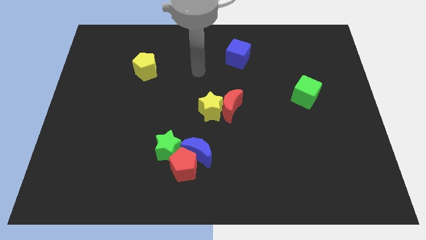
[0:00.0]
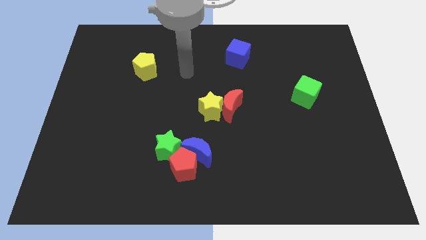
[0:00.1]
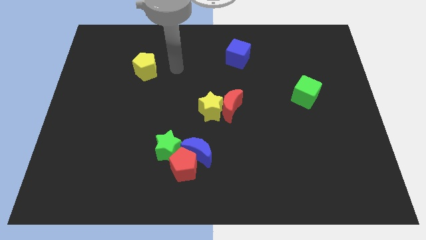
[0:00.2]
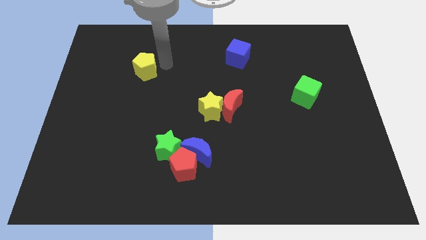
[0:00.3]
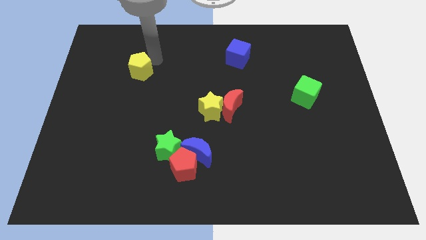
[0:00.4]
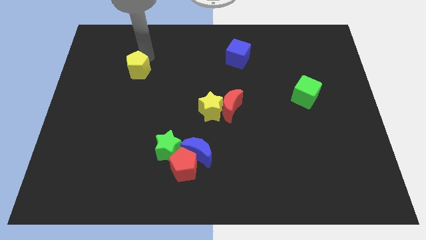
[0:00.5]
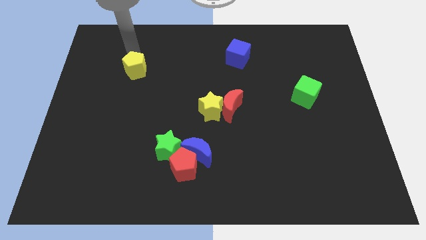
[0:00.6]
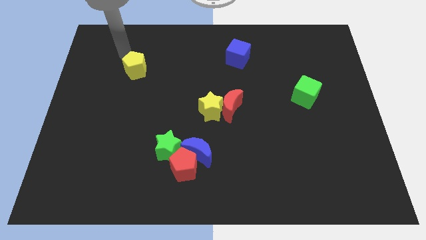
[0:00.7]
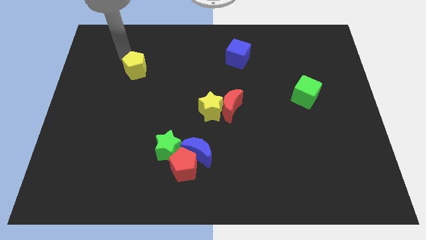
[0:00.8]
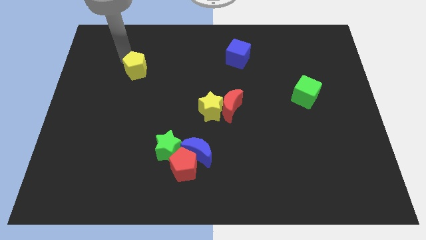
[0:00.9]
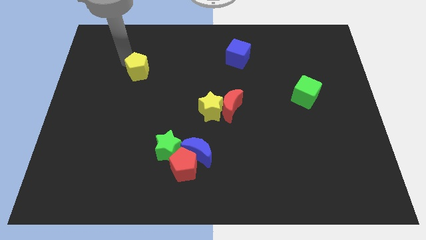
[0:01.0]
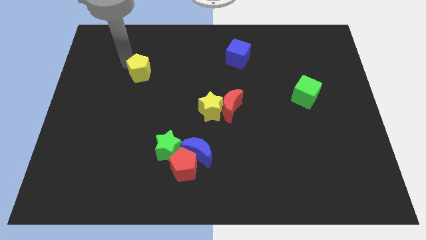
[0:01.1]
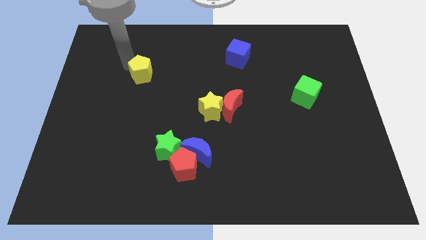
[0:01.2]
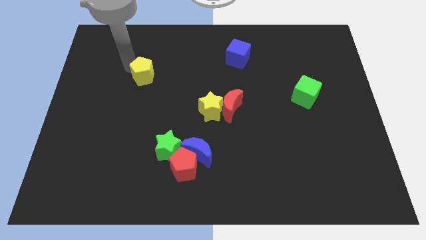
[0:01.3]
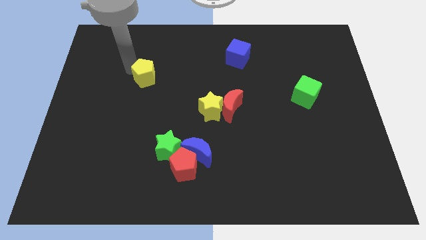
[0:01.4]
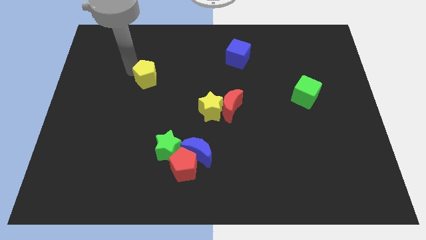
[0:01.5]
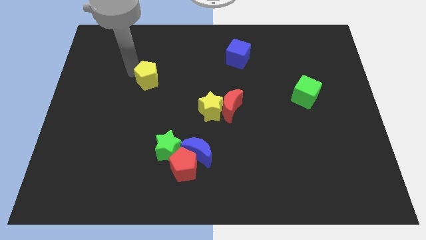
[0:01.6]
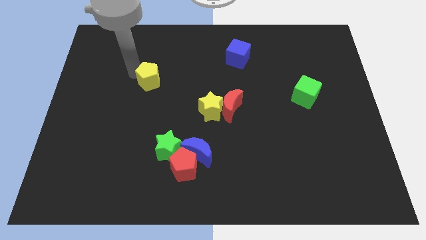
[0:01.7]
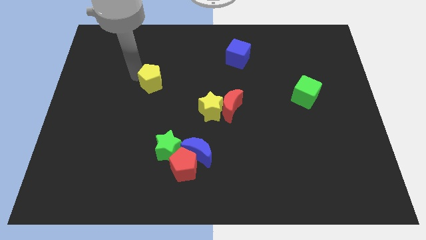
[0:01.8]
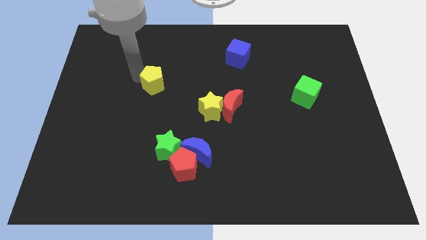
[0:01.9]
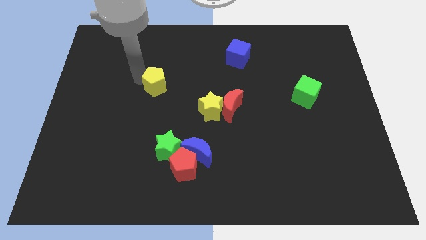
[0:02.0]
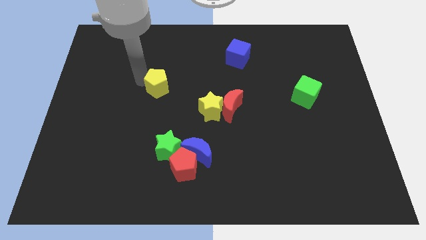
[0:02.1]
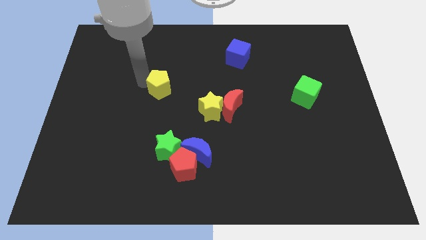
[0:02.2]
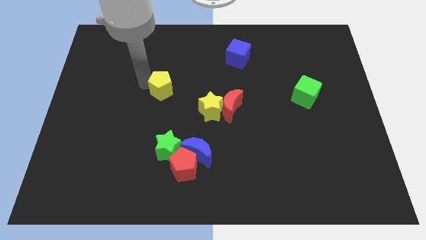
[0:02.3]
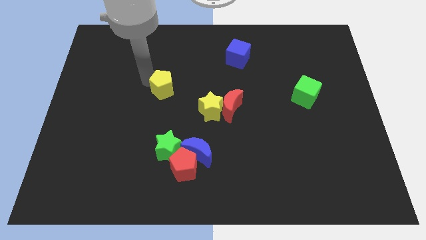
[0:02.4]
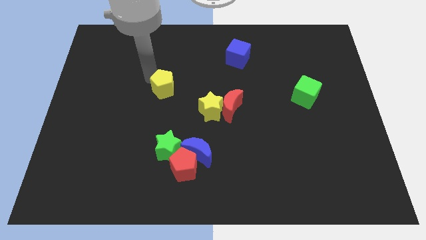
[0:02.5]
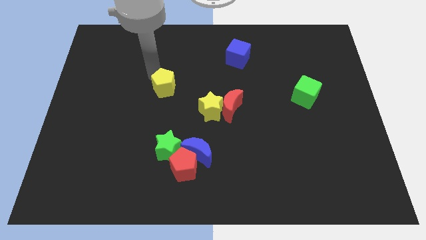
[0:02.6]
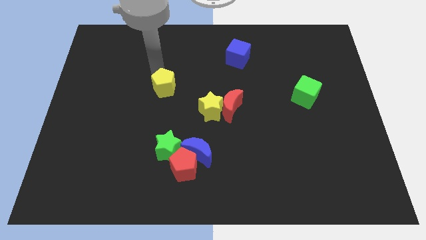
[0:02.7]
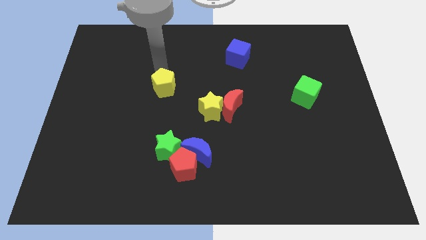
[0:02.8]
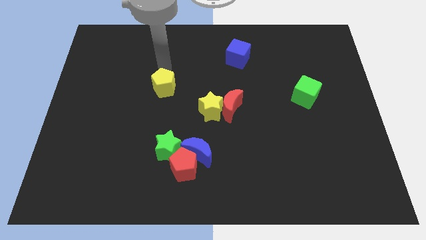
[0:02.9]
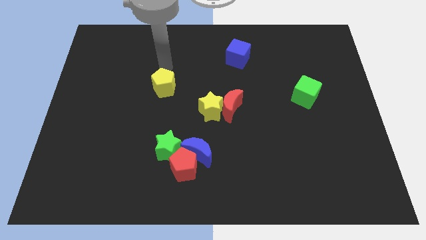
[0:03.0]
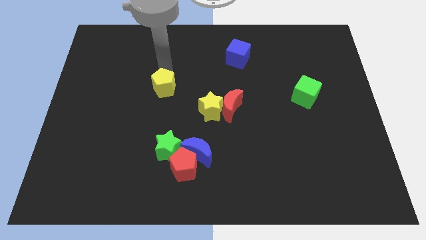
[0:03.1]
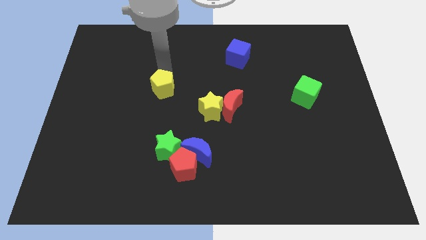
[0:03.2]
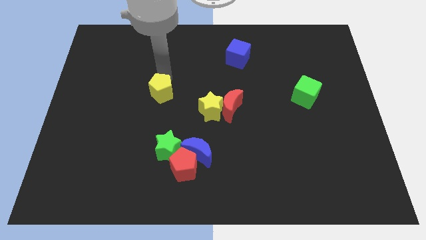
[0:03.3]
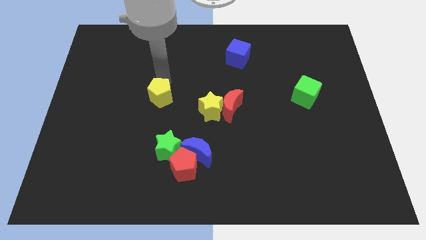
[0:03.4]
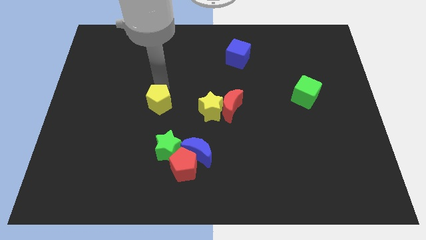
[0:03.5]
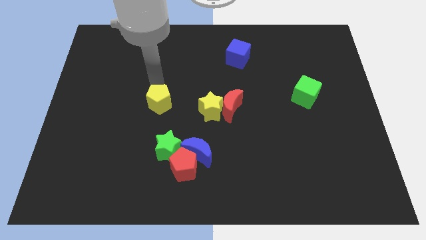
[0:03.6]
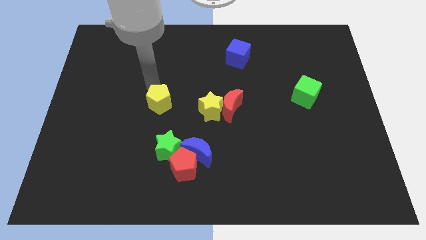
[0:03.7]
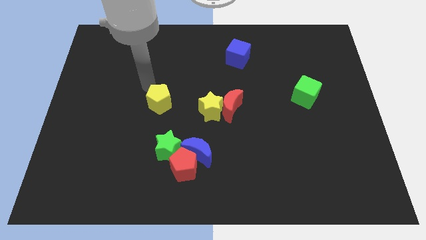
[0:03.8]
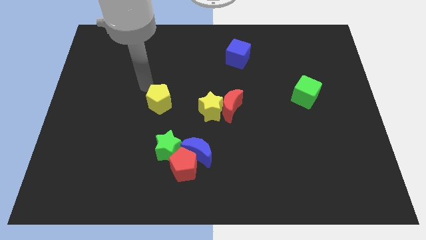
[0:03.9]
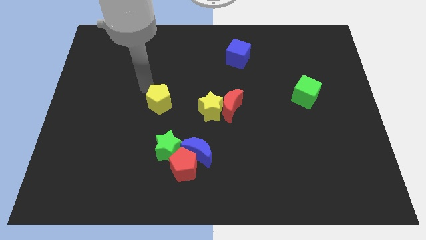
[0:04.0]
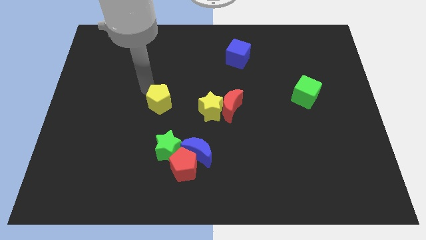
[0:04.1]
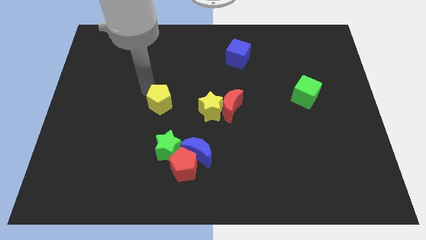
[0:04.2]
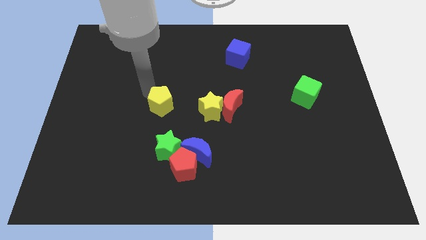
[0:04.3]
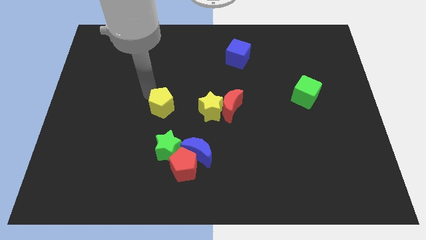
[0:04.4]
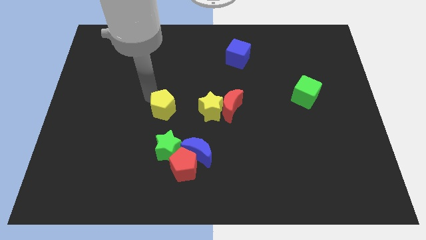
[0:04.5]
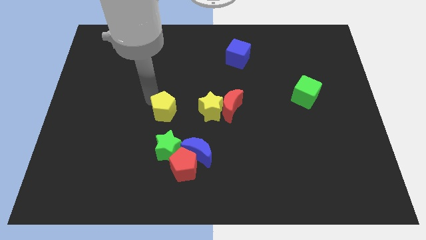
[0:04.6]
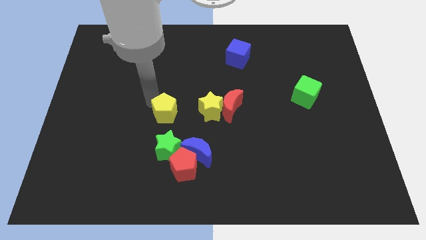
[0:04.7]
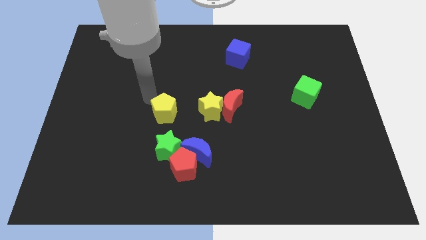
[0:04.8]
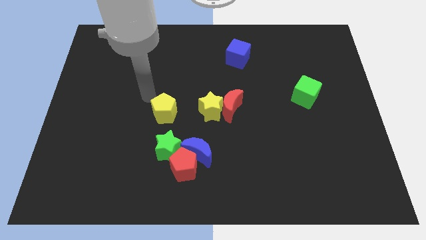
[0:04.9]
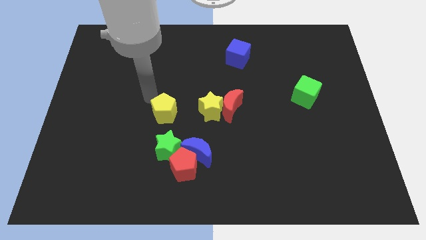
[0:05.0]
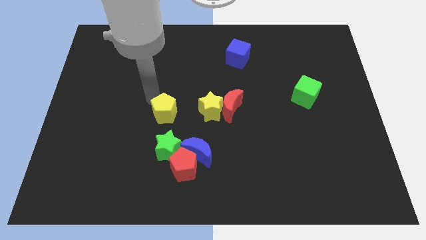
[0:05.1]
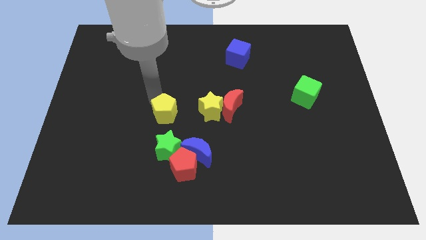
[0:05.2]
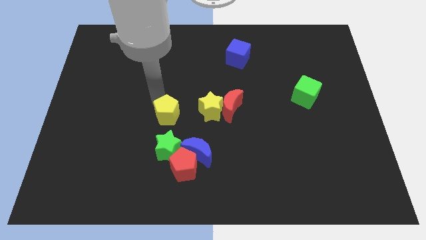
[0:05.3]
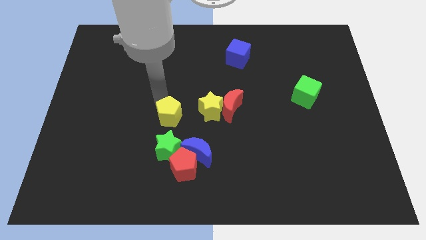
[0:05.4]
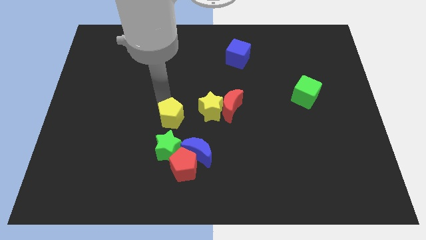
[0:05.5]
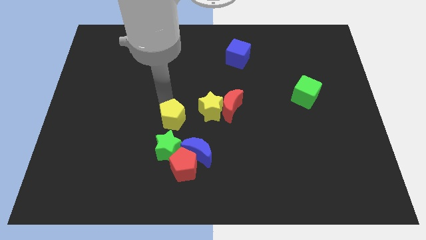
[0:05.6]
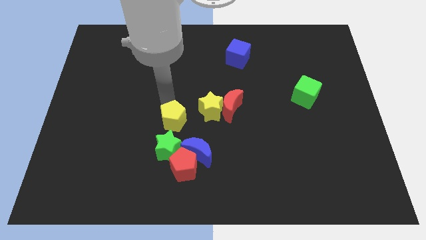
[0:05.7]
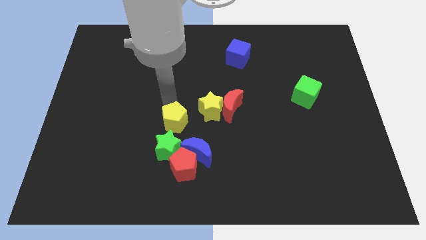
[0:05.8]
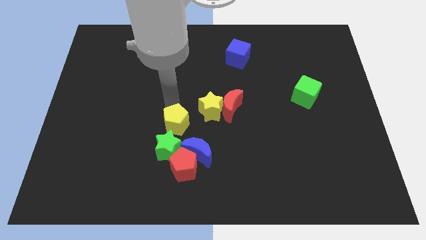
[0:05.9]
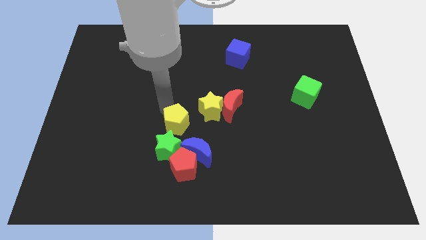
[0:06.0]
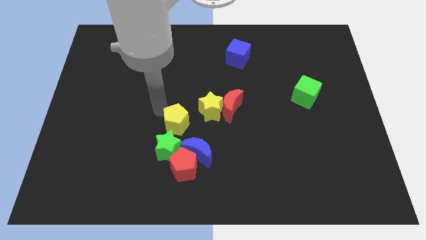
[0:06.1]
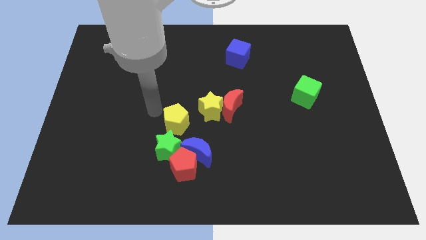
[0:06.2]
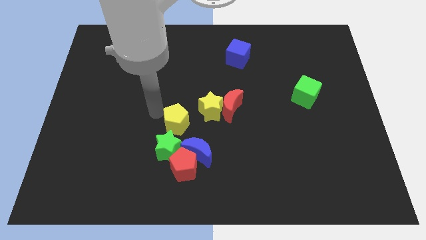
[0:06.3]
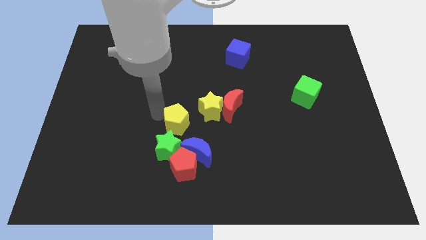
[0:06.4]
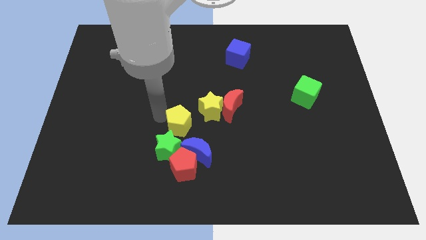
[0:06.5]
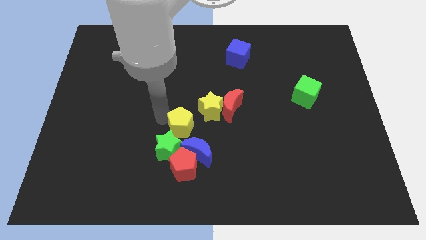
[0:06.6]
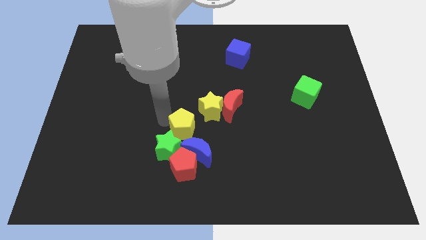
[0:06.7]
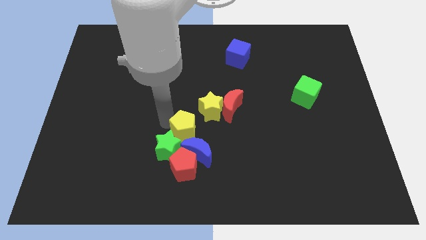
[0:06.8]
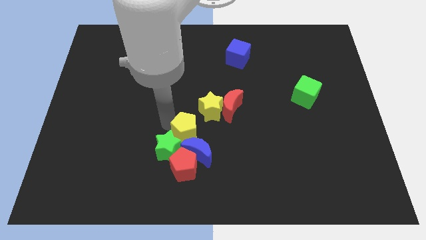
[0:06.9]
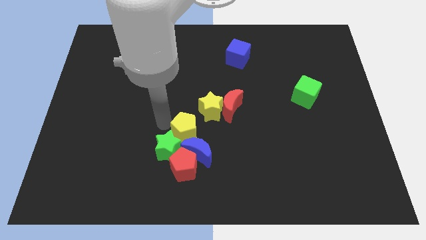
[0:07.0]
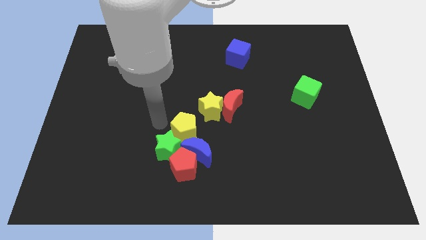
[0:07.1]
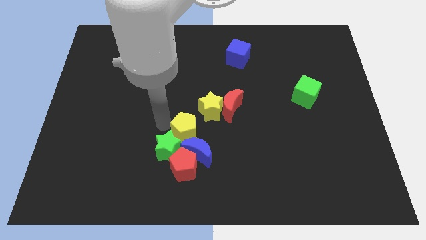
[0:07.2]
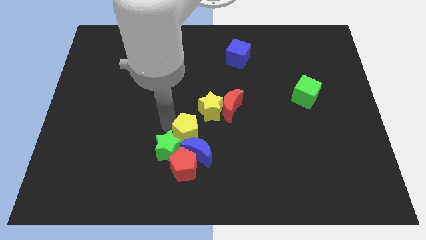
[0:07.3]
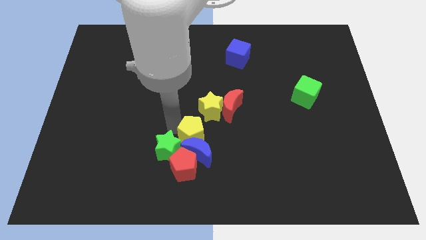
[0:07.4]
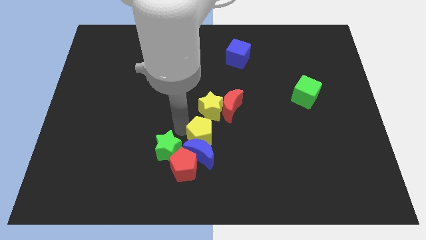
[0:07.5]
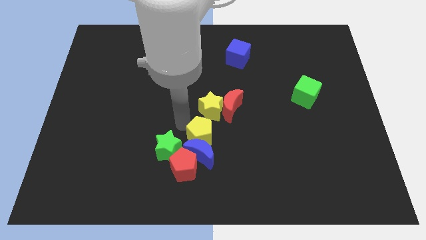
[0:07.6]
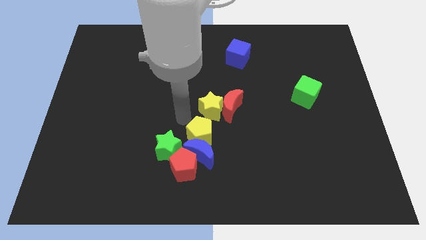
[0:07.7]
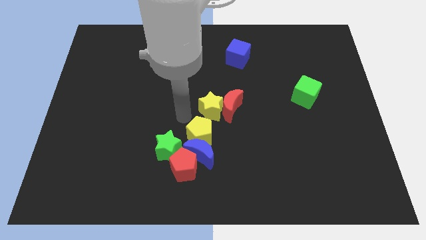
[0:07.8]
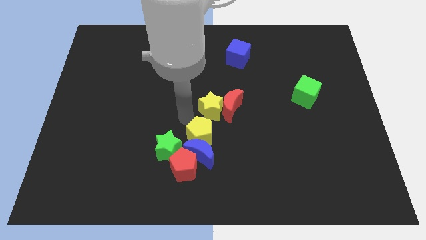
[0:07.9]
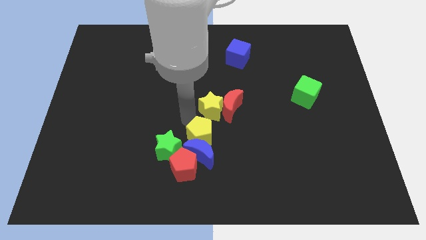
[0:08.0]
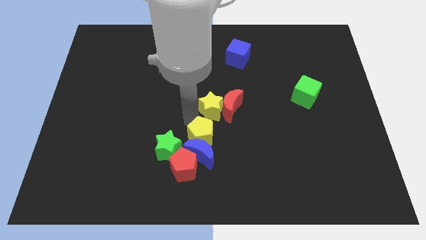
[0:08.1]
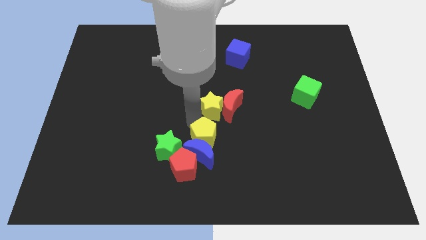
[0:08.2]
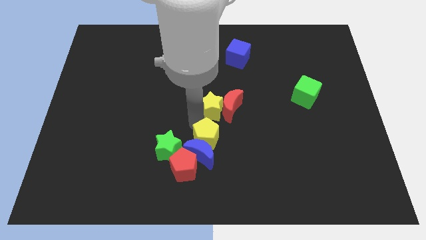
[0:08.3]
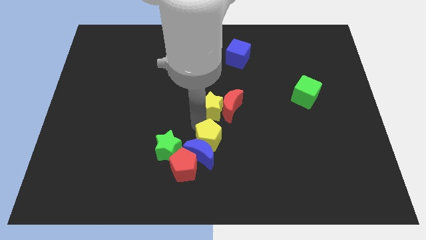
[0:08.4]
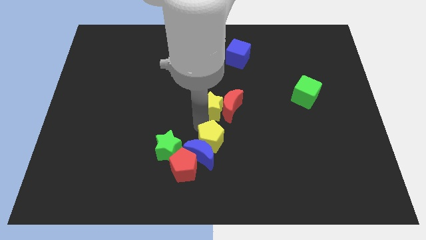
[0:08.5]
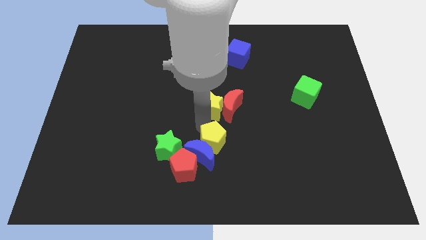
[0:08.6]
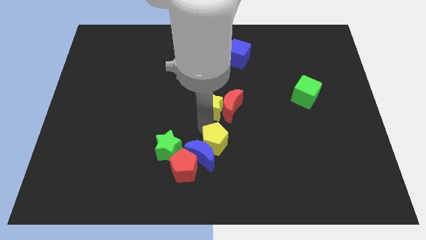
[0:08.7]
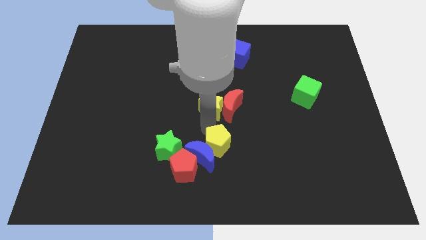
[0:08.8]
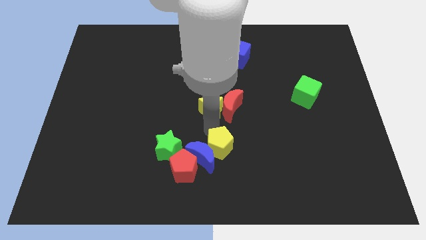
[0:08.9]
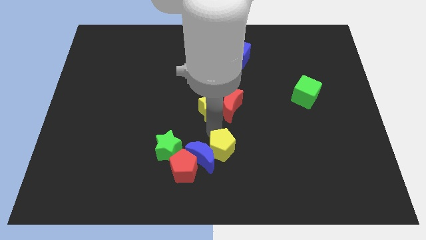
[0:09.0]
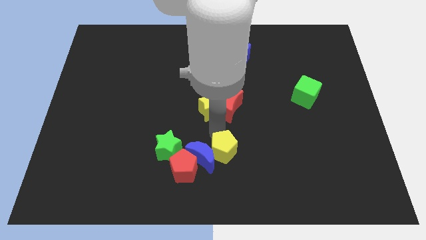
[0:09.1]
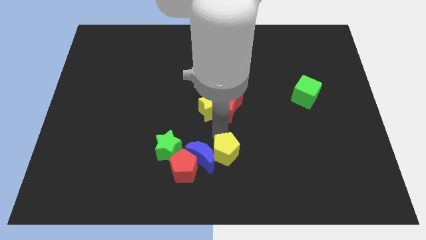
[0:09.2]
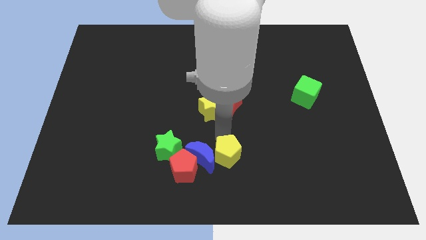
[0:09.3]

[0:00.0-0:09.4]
put the yellow pentagon to the bottom
